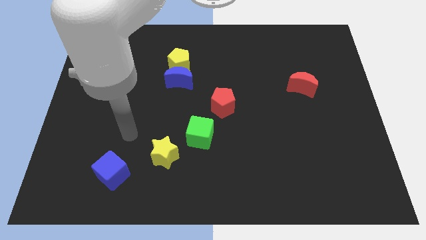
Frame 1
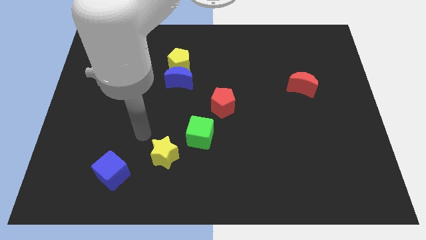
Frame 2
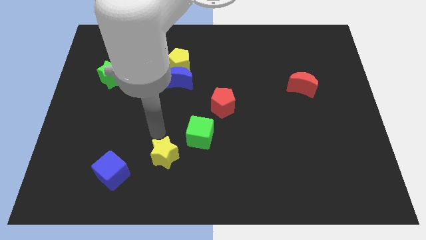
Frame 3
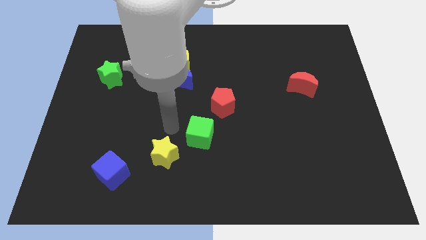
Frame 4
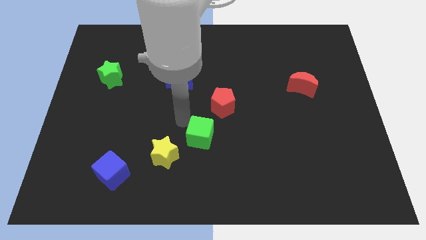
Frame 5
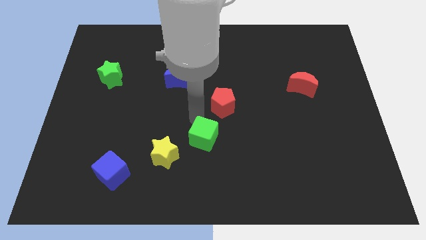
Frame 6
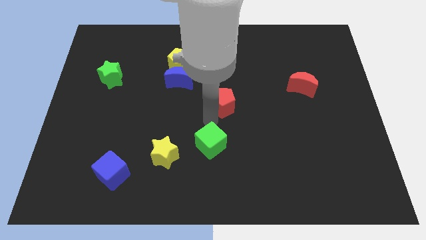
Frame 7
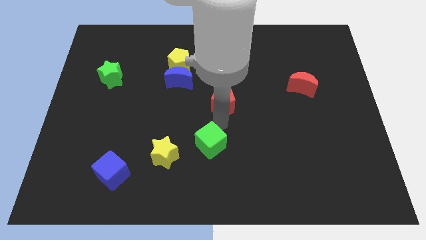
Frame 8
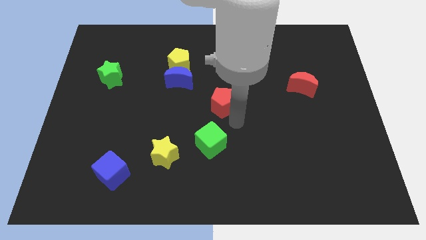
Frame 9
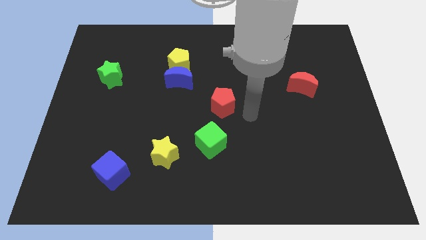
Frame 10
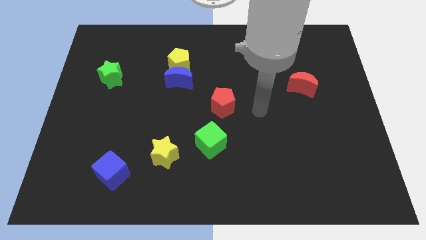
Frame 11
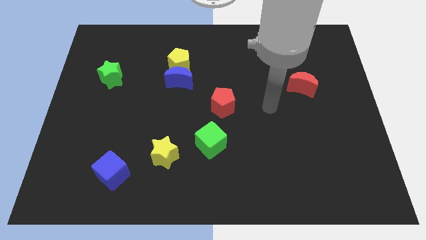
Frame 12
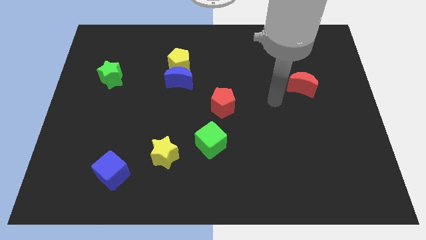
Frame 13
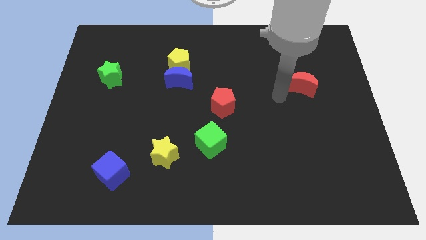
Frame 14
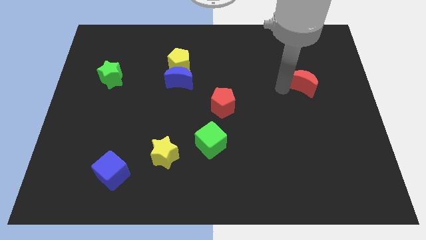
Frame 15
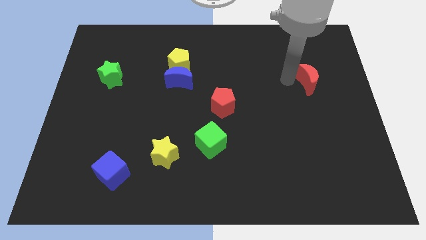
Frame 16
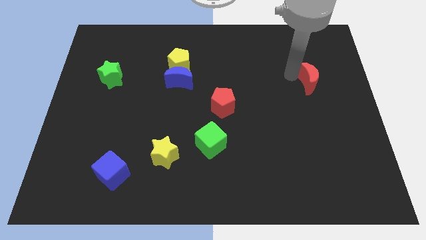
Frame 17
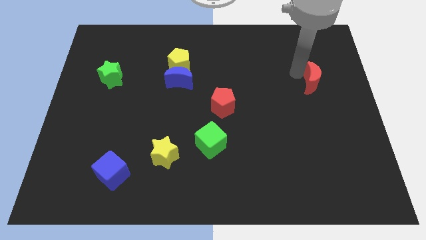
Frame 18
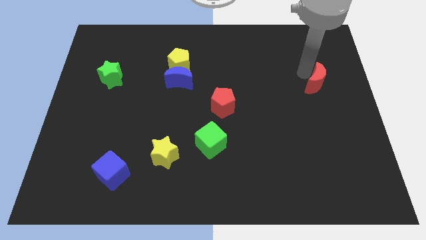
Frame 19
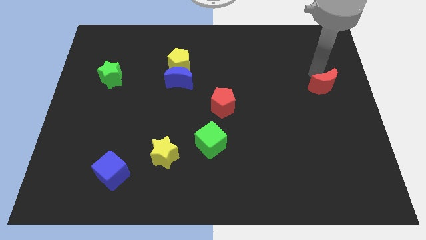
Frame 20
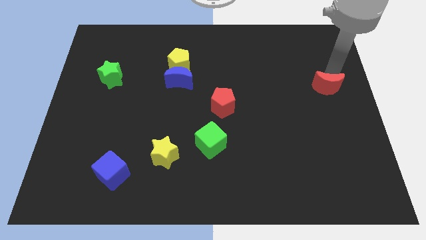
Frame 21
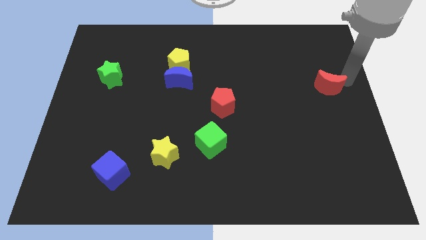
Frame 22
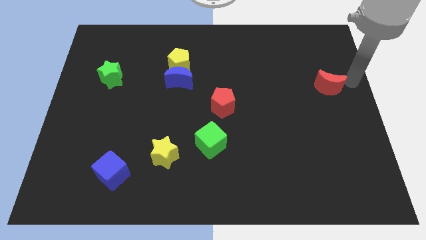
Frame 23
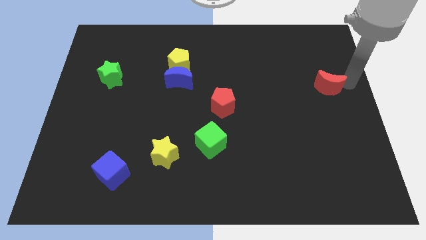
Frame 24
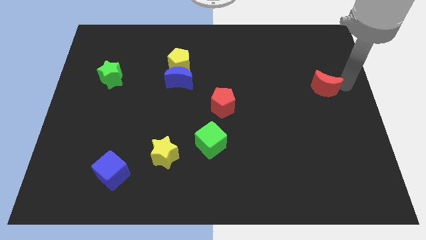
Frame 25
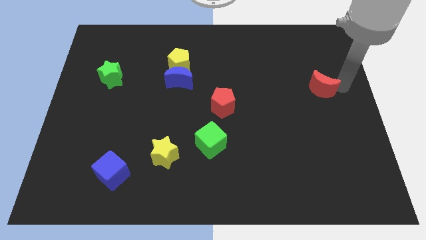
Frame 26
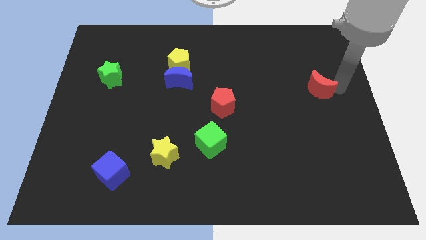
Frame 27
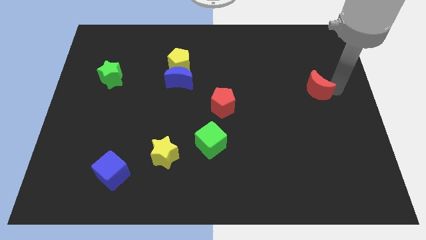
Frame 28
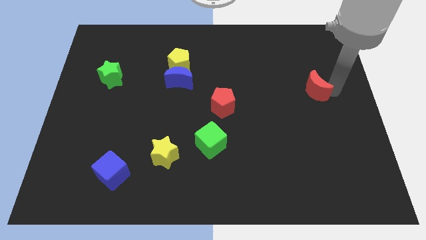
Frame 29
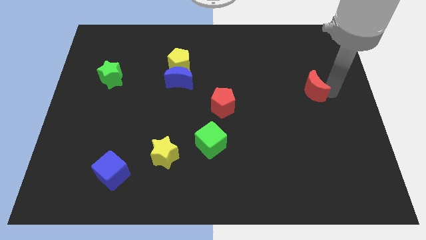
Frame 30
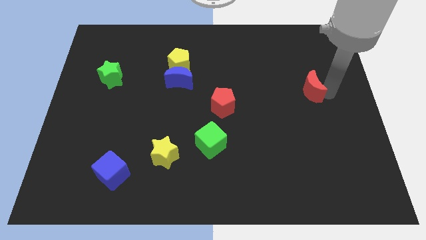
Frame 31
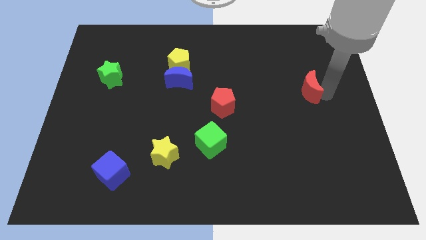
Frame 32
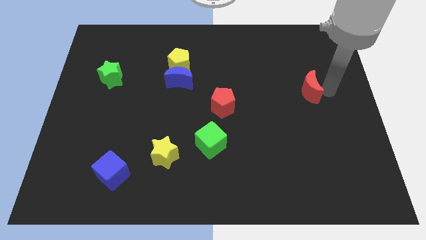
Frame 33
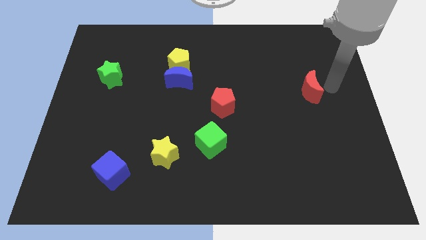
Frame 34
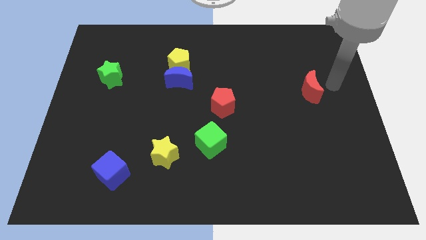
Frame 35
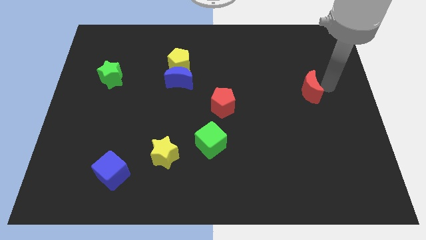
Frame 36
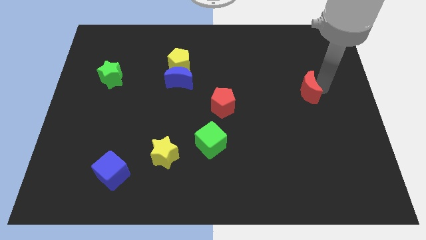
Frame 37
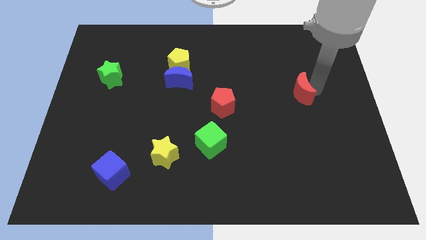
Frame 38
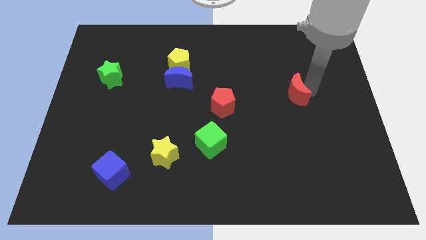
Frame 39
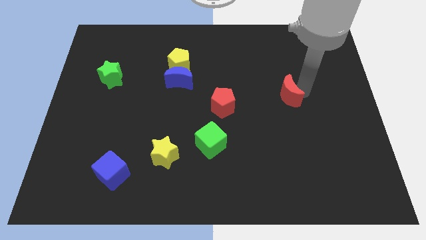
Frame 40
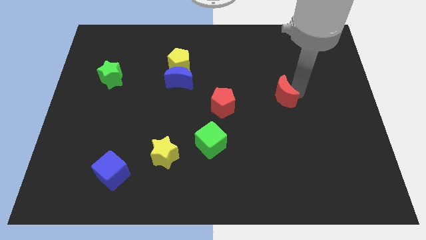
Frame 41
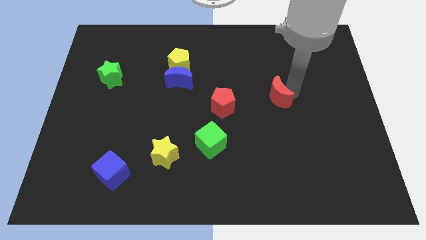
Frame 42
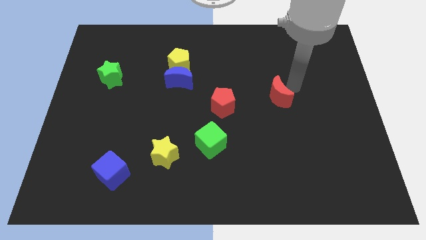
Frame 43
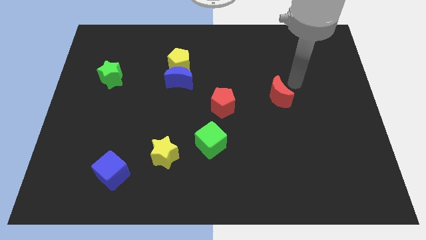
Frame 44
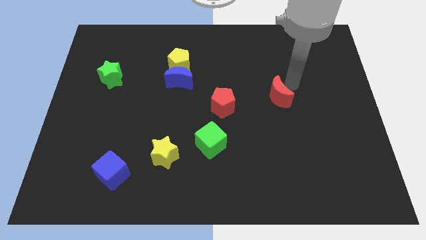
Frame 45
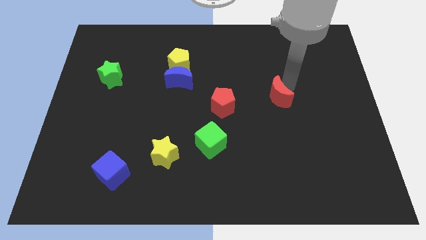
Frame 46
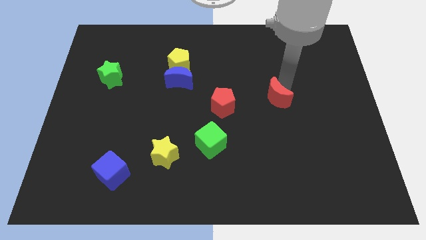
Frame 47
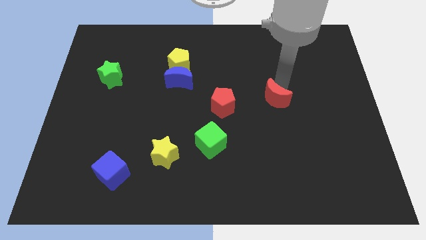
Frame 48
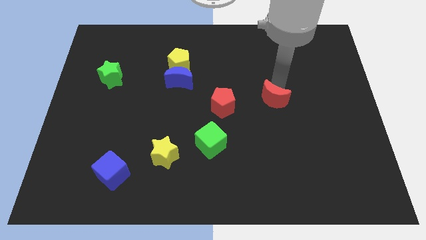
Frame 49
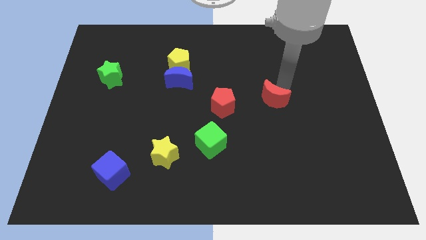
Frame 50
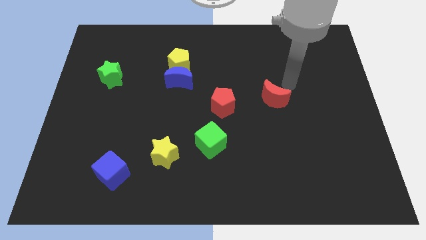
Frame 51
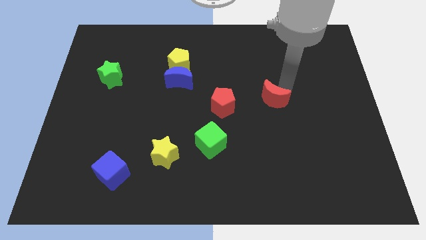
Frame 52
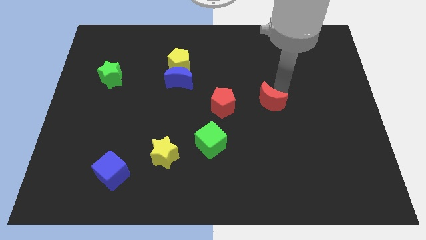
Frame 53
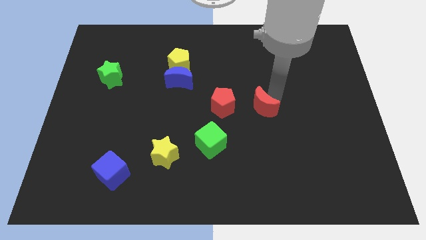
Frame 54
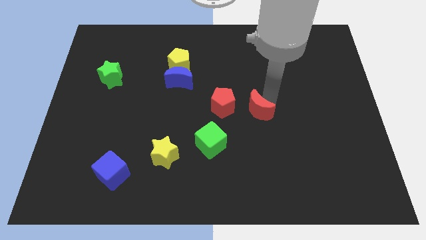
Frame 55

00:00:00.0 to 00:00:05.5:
slide the red moon diagonally down and to the right of the red pentagon

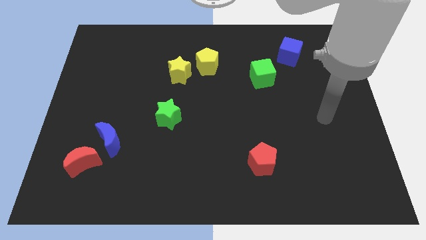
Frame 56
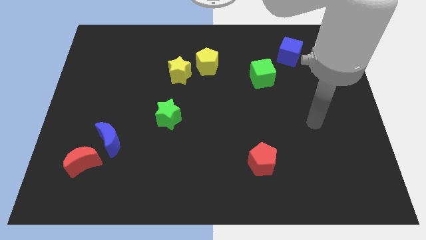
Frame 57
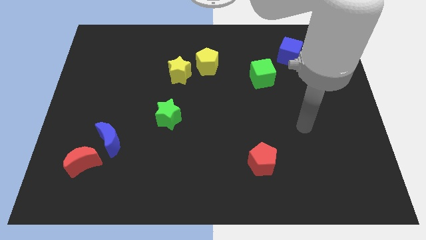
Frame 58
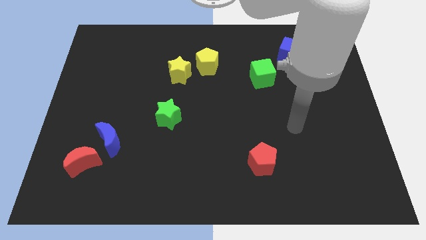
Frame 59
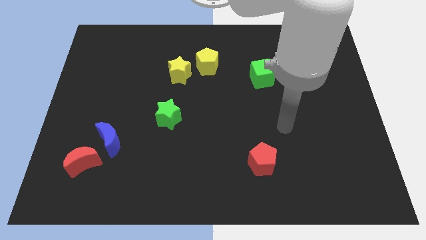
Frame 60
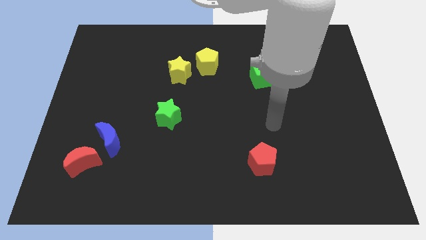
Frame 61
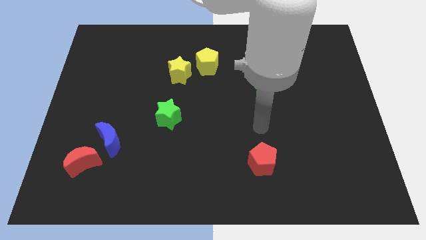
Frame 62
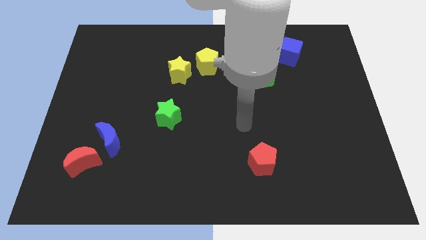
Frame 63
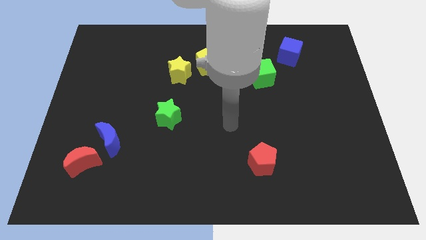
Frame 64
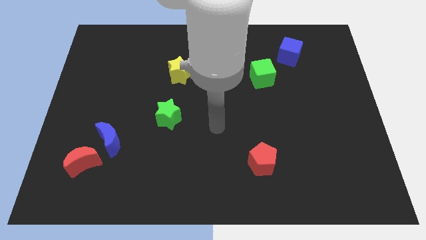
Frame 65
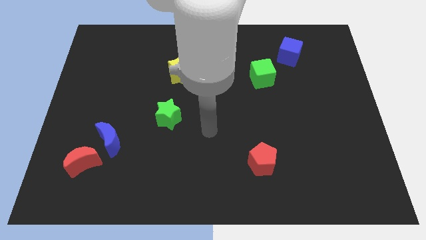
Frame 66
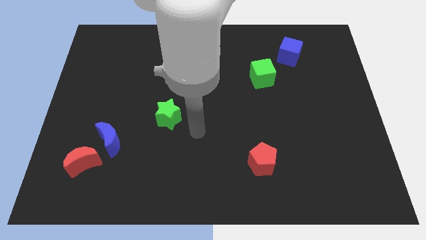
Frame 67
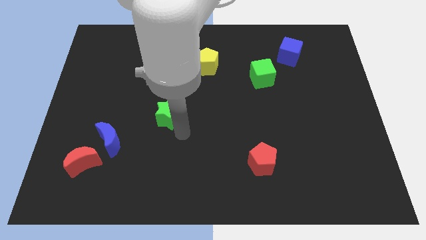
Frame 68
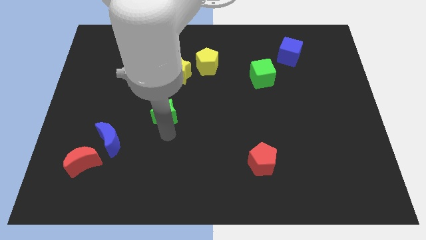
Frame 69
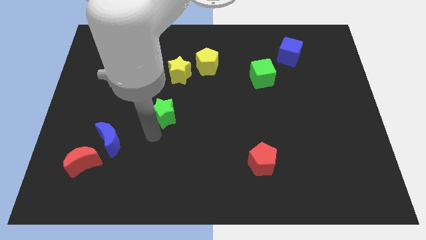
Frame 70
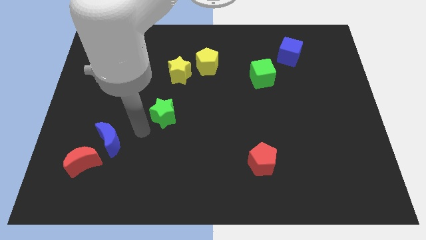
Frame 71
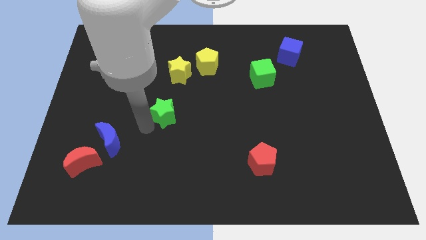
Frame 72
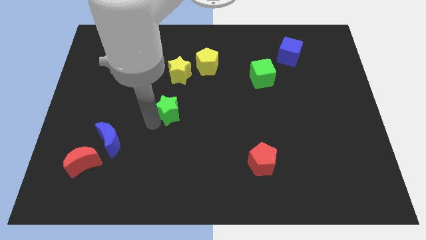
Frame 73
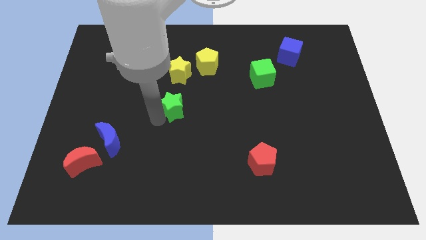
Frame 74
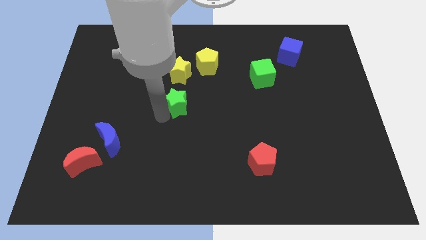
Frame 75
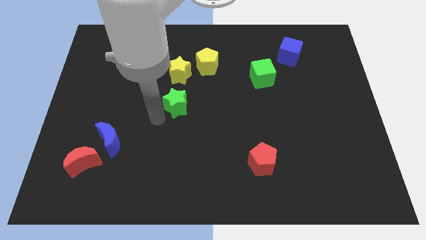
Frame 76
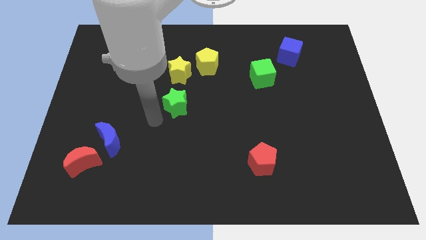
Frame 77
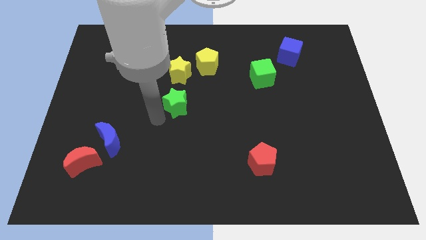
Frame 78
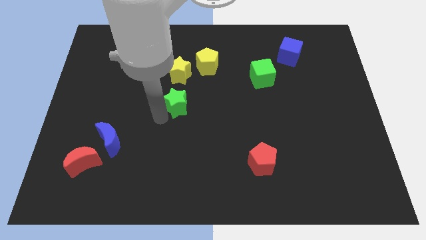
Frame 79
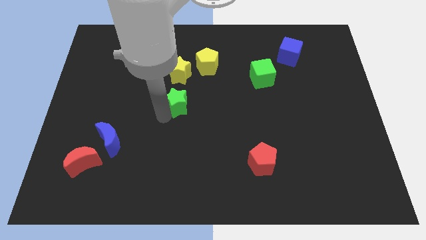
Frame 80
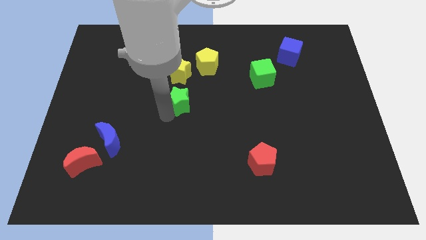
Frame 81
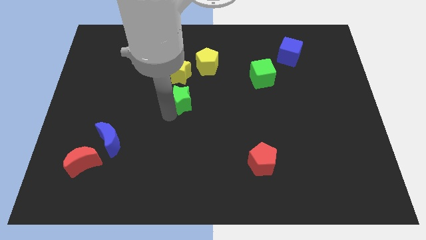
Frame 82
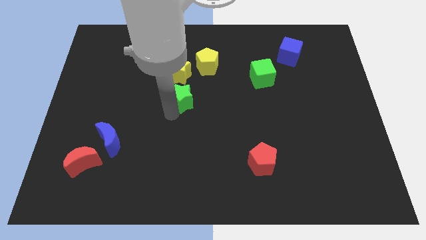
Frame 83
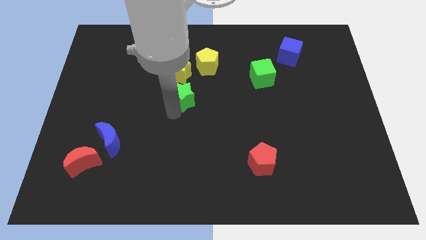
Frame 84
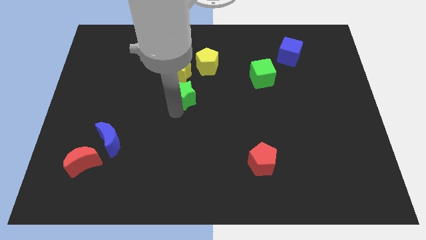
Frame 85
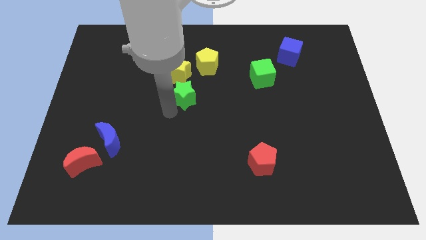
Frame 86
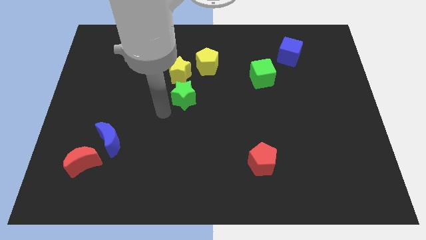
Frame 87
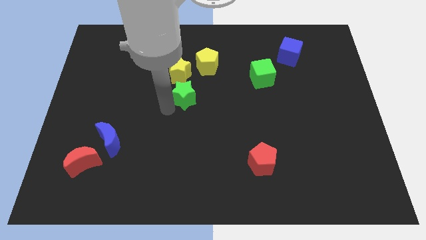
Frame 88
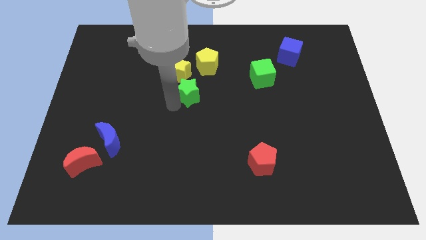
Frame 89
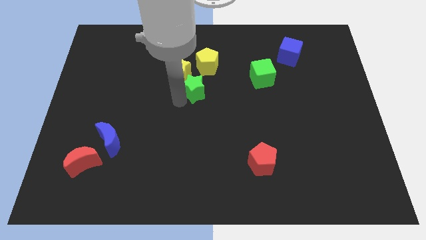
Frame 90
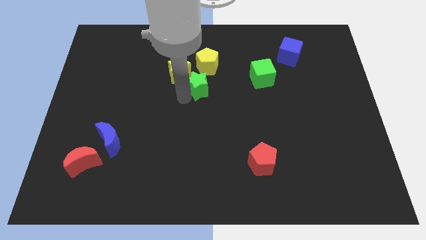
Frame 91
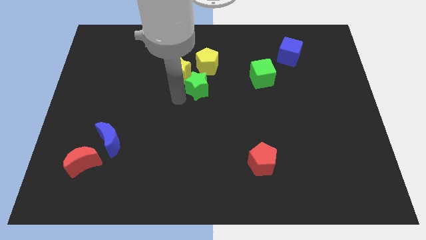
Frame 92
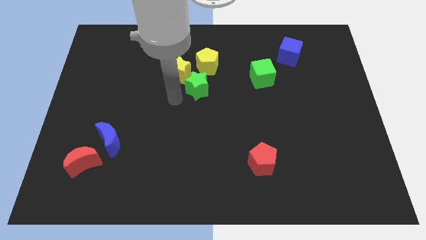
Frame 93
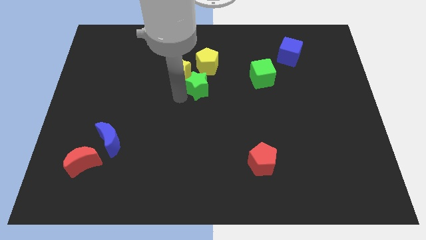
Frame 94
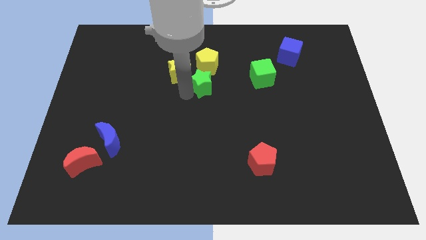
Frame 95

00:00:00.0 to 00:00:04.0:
put the green star to the left side of the green cube
